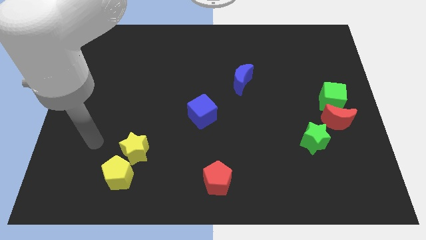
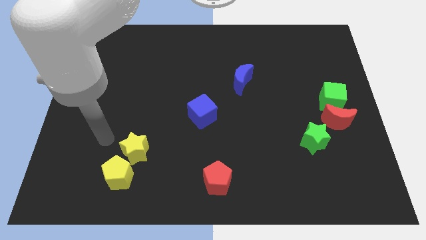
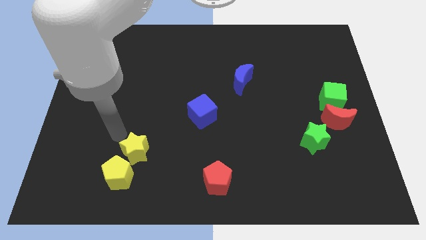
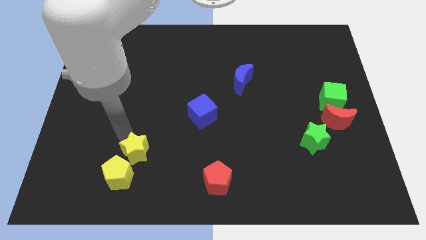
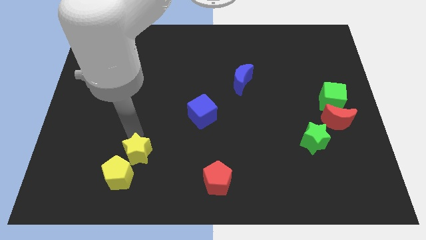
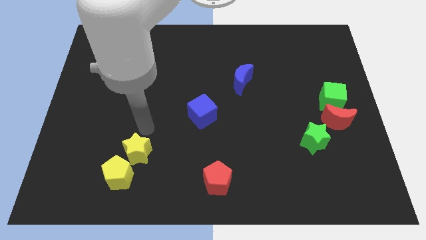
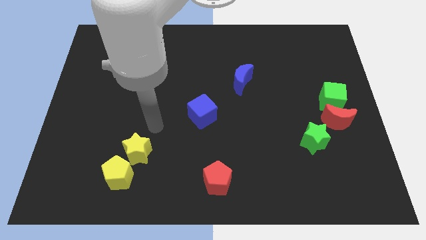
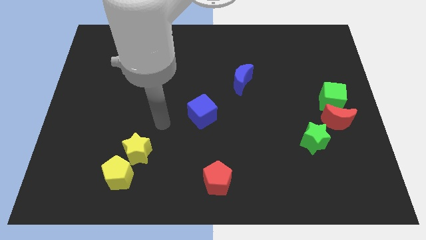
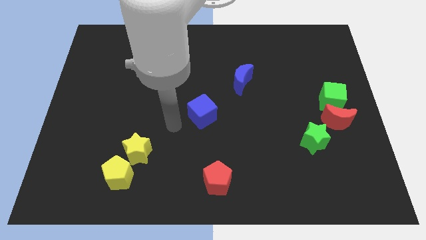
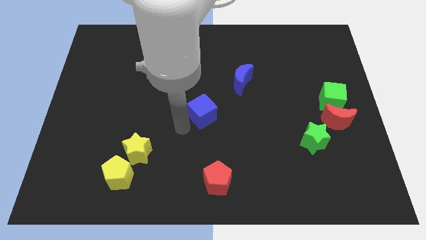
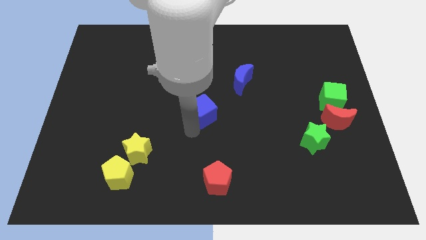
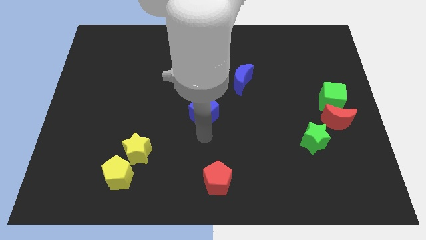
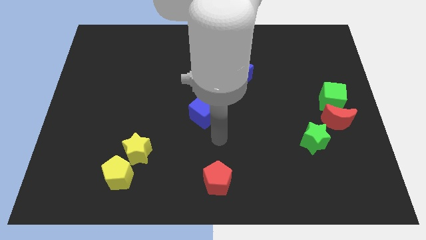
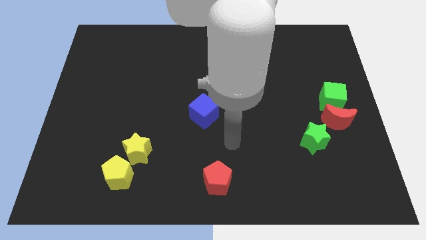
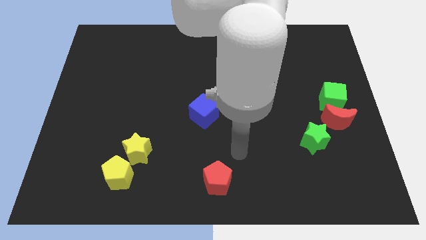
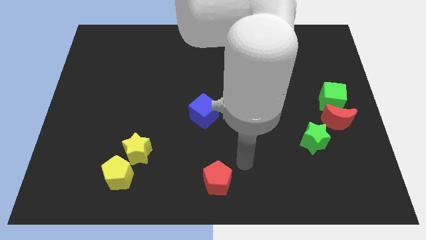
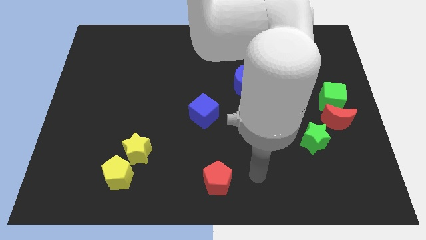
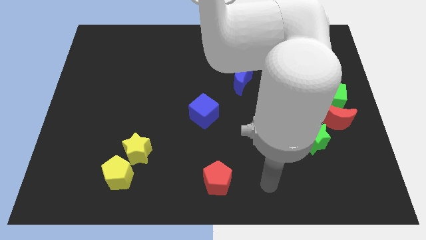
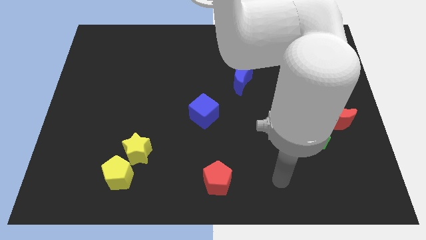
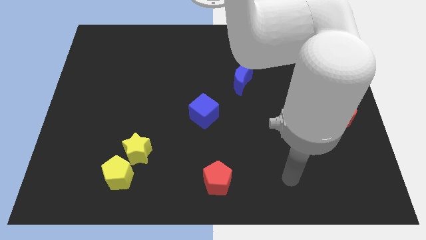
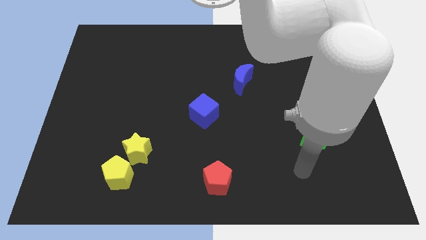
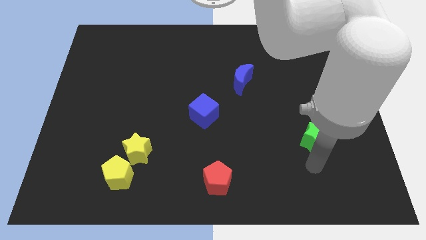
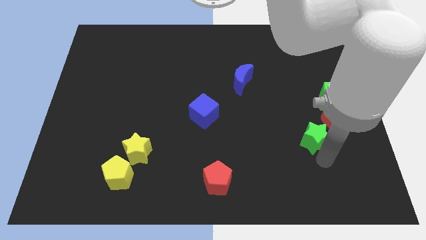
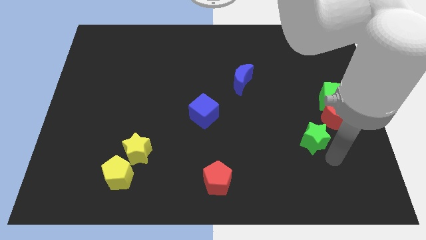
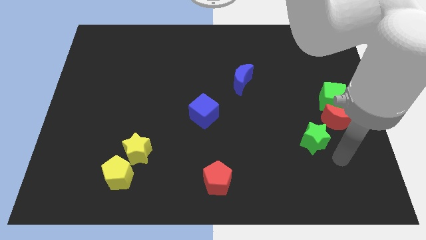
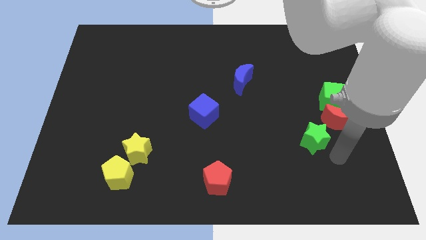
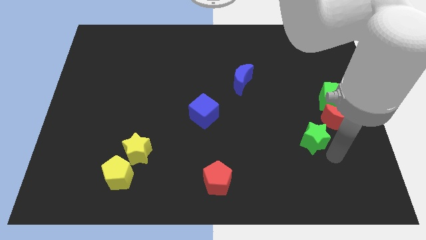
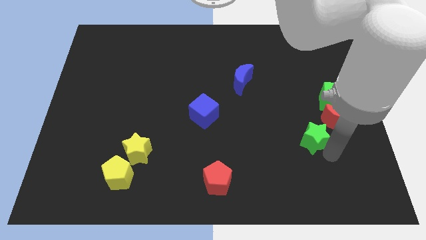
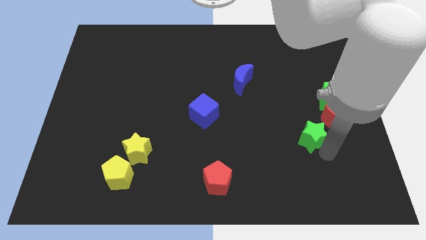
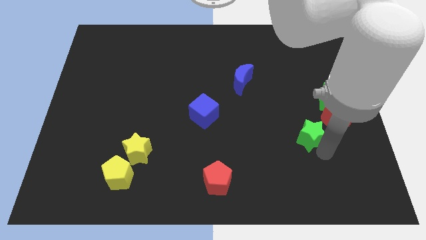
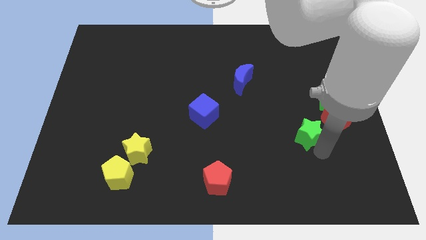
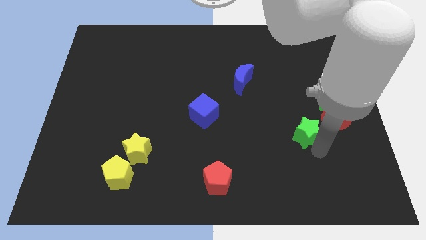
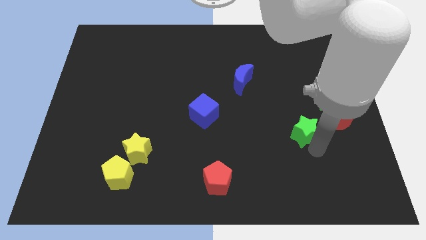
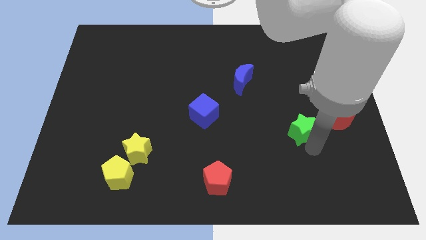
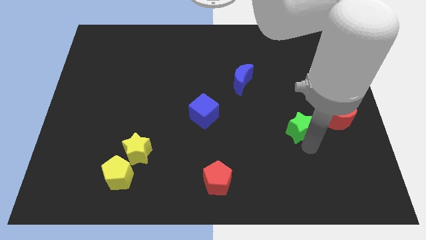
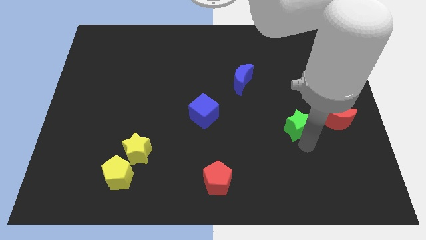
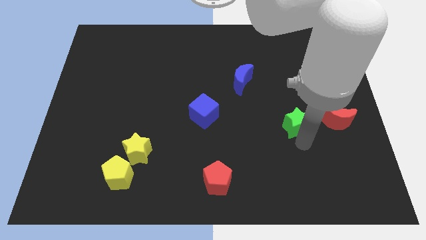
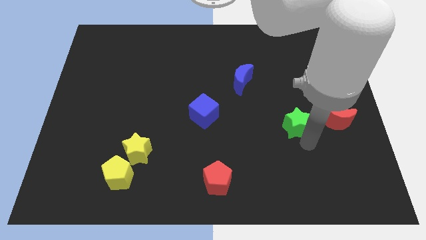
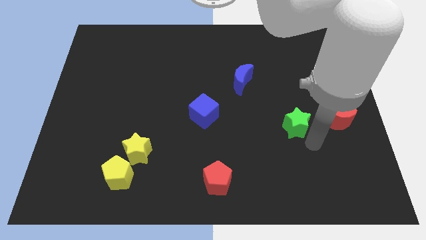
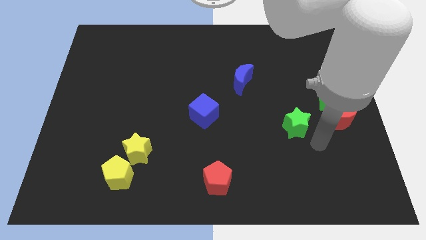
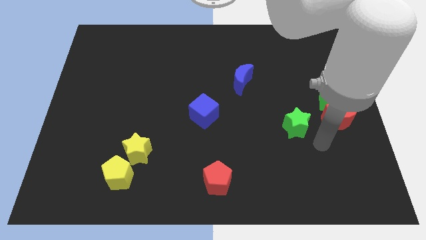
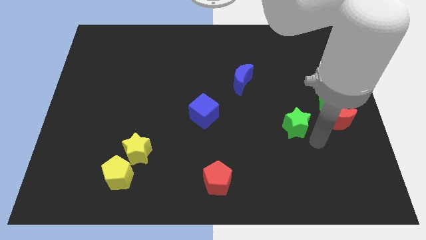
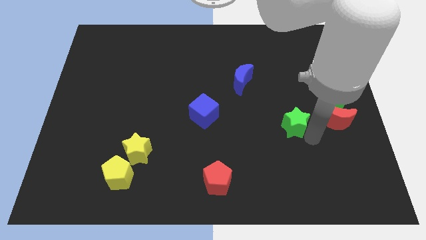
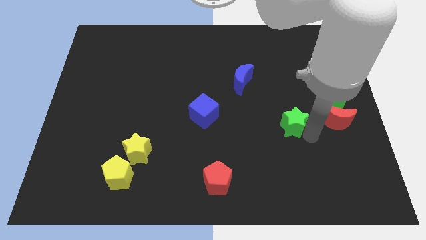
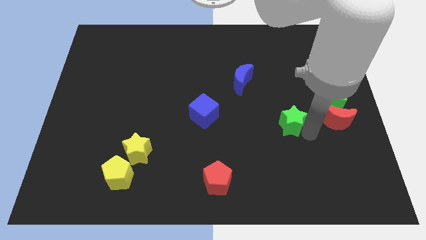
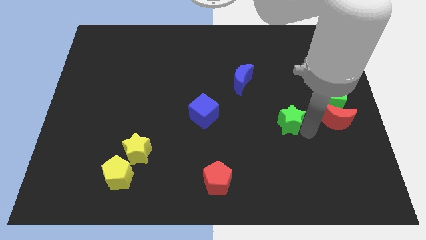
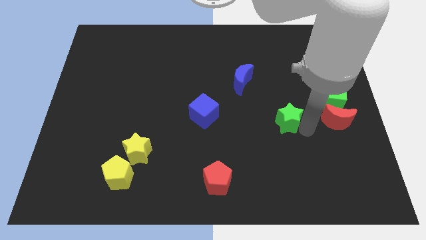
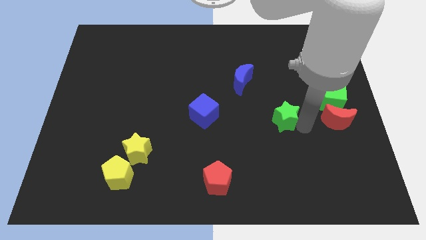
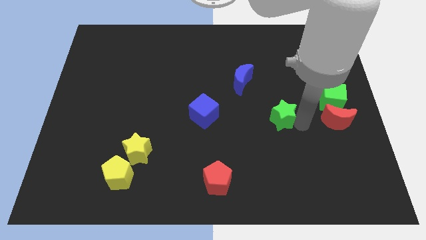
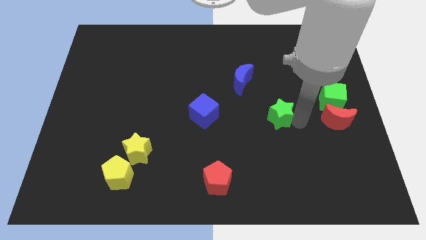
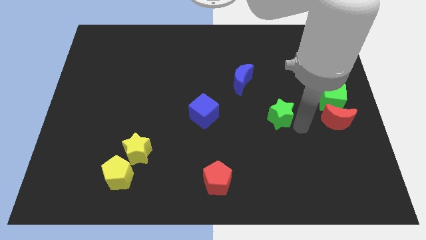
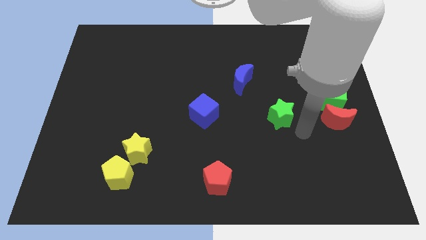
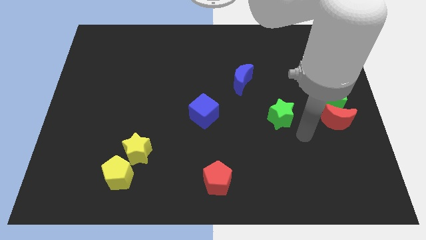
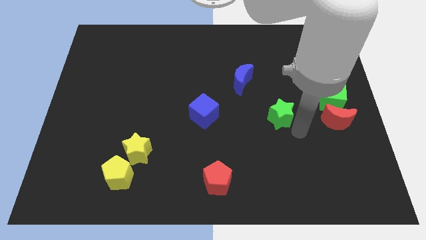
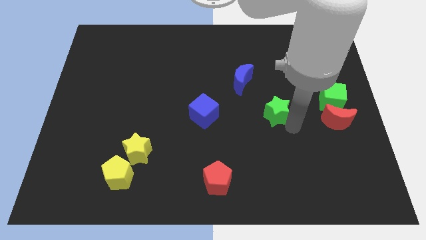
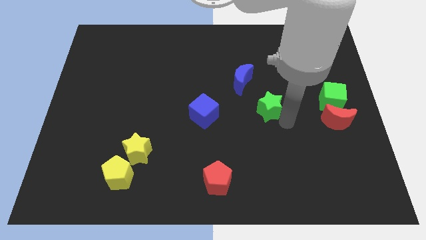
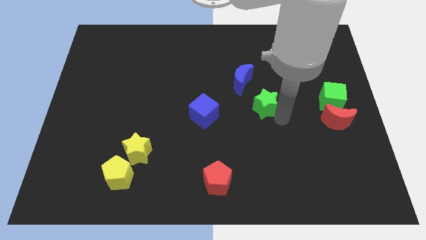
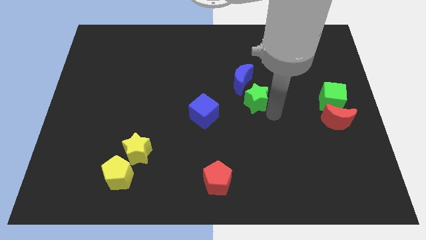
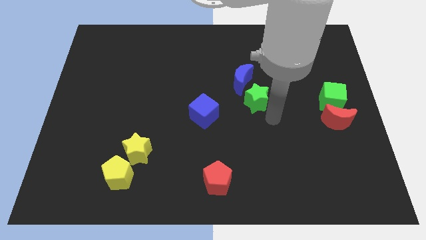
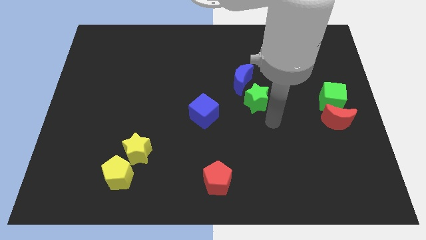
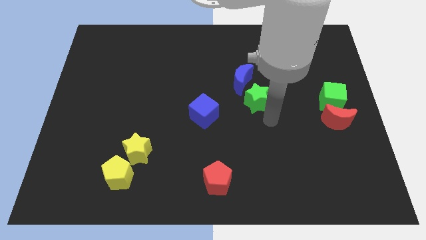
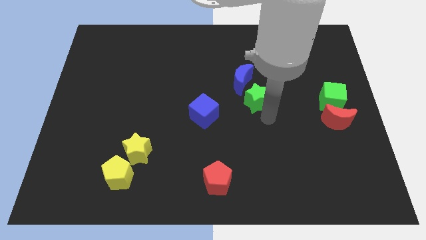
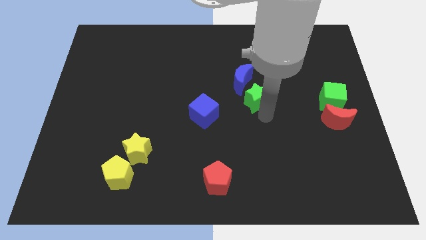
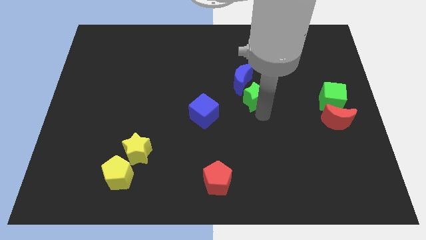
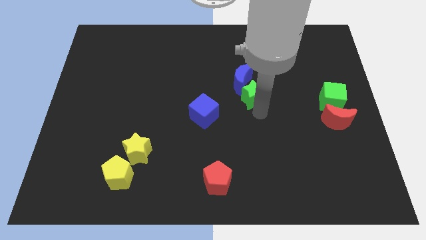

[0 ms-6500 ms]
slide the green star close to the blue moon

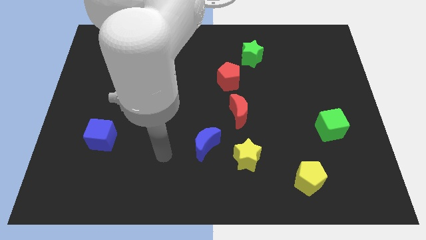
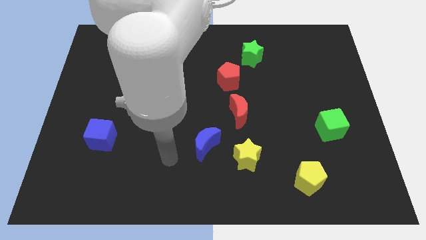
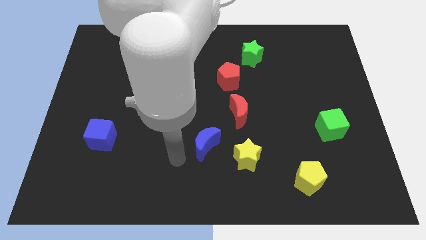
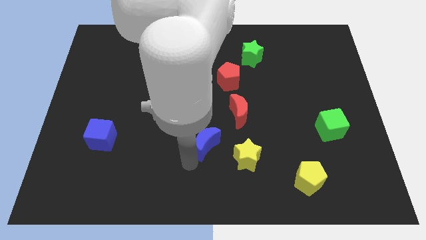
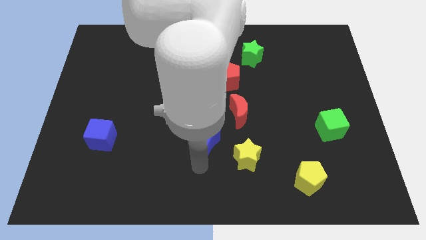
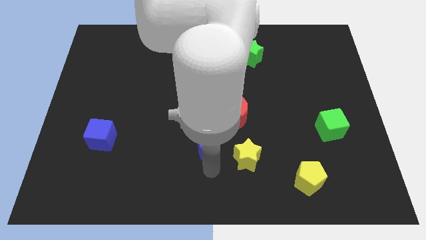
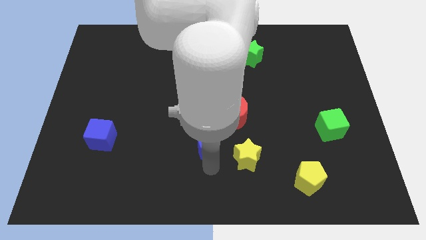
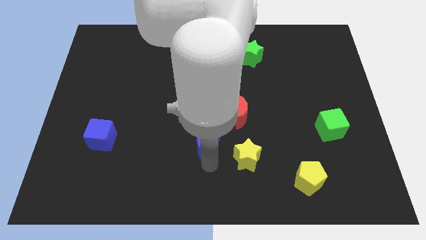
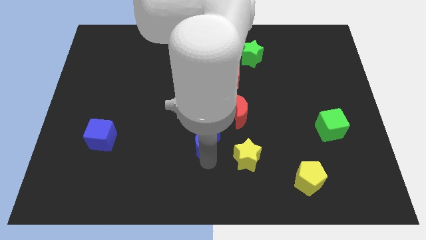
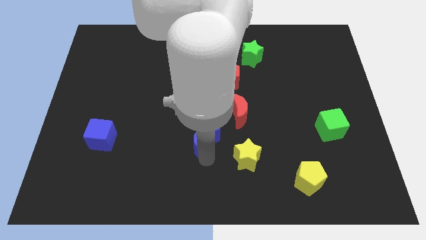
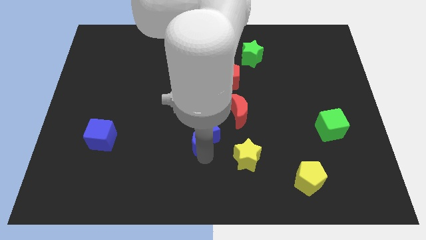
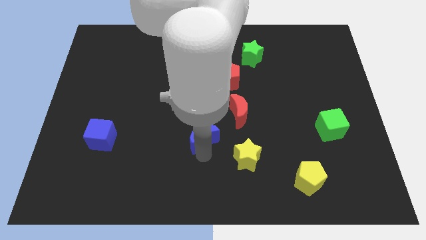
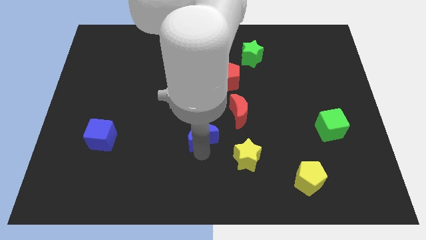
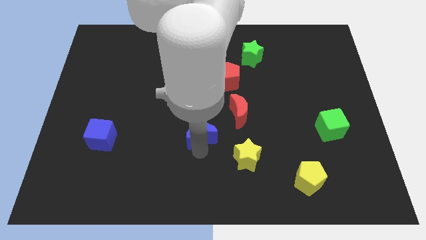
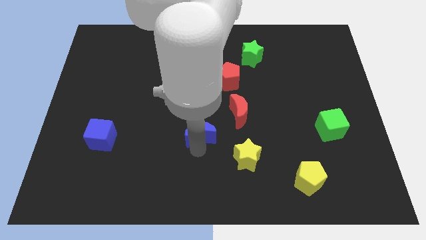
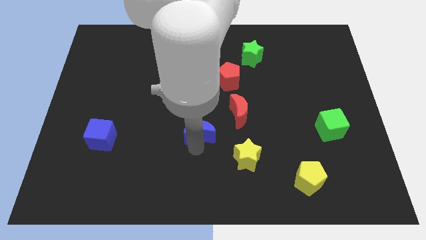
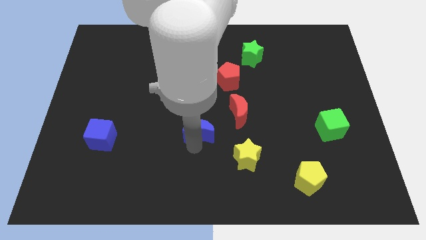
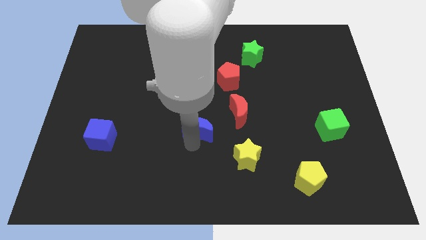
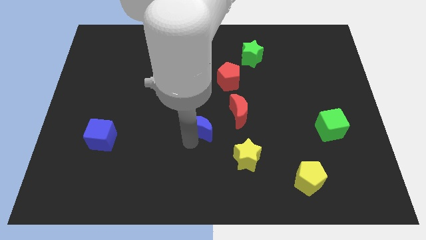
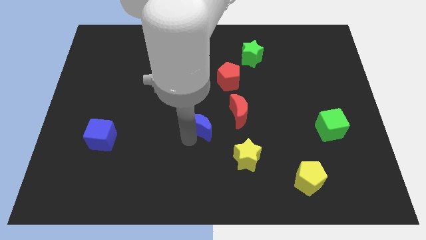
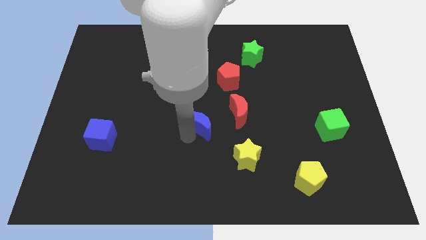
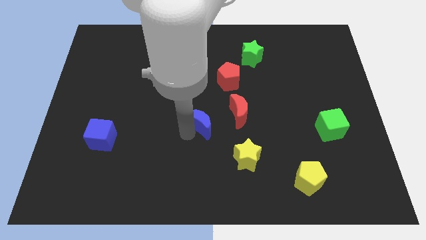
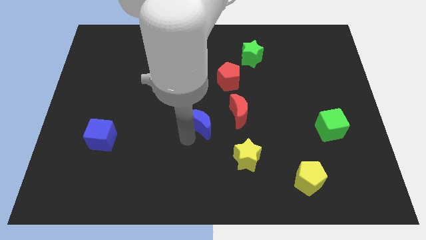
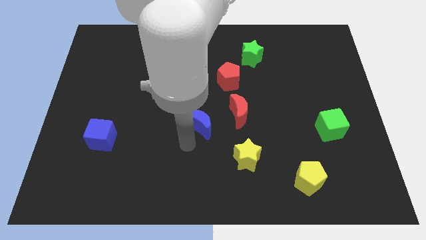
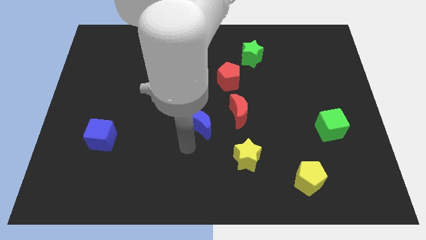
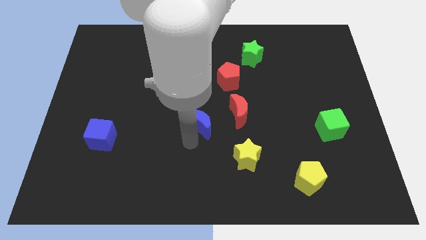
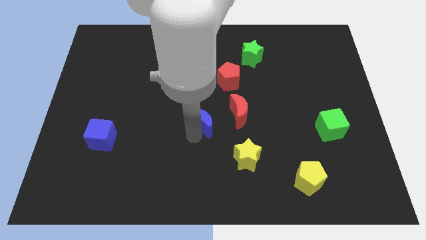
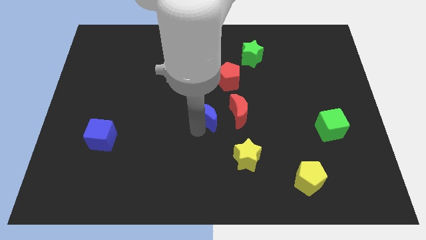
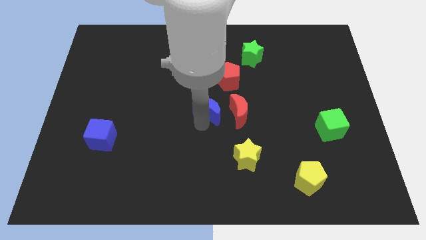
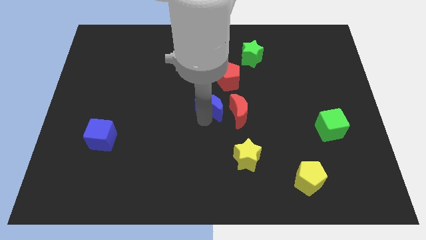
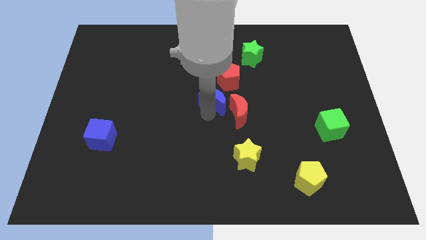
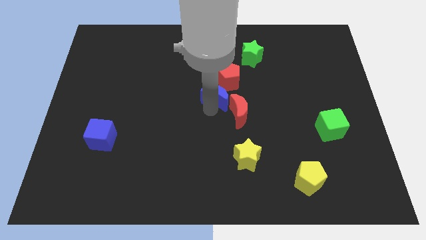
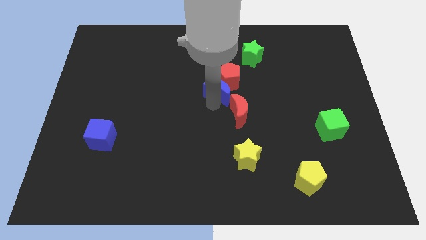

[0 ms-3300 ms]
slide the blue moon close to the red pentagon
